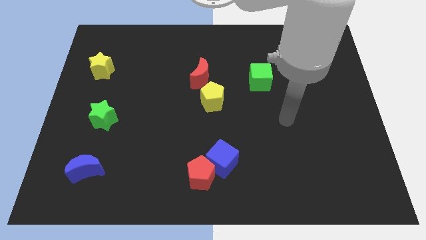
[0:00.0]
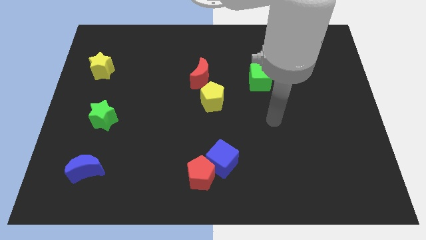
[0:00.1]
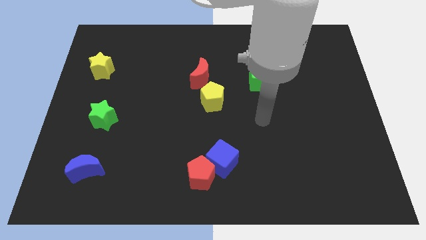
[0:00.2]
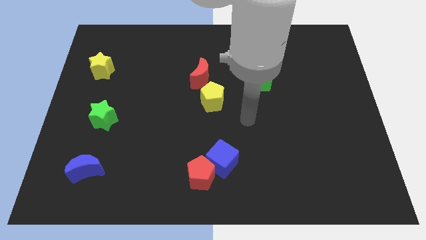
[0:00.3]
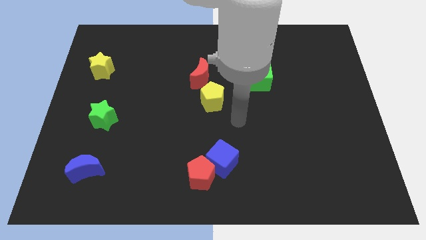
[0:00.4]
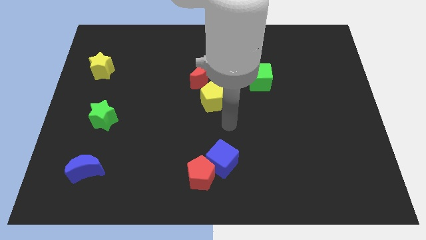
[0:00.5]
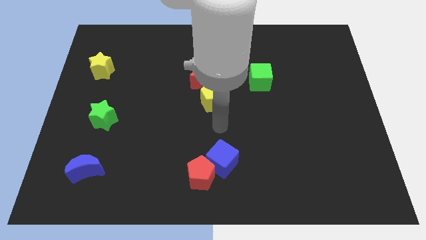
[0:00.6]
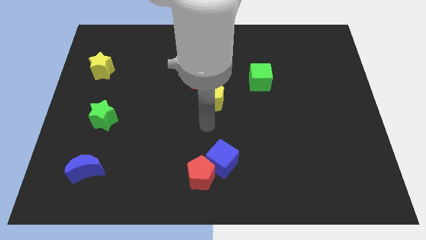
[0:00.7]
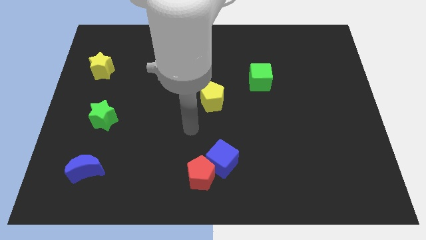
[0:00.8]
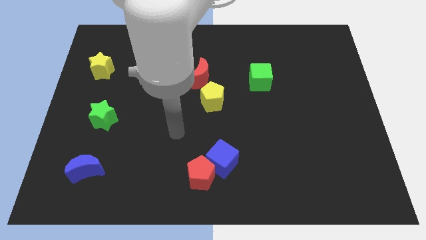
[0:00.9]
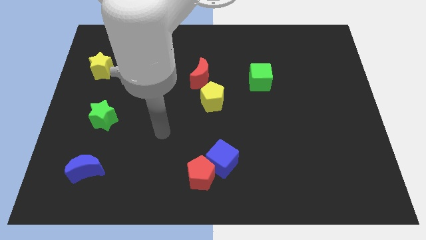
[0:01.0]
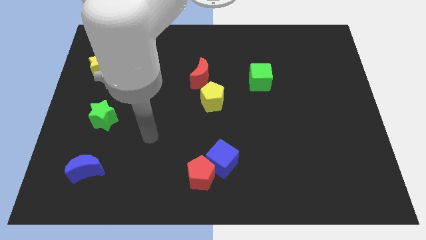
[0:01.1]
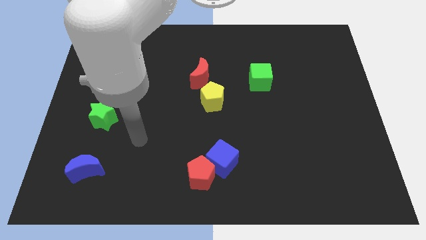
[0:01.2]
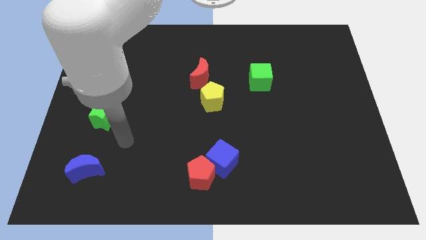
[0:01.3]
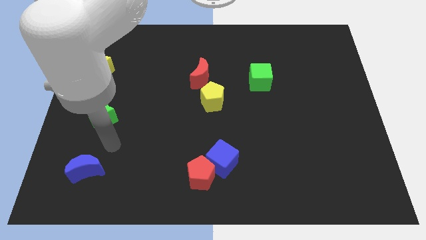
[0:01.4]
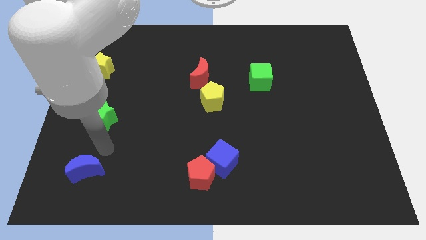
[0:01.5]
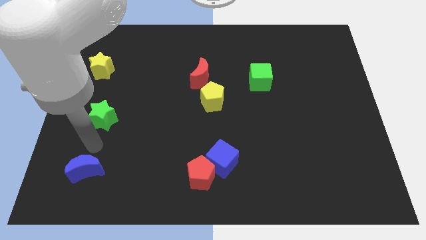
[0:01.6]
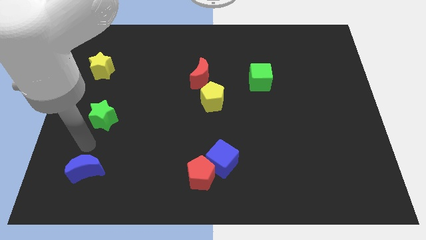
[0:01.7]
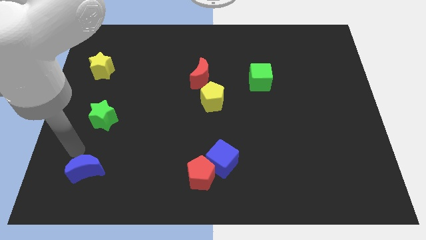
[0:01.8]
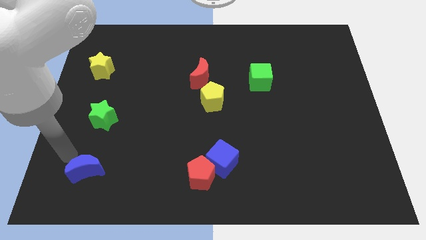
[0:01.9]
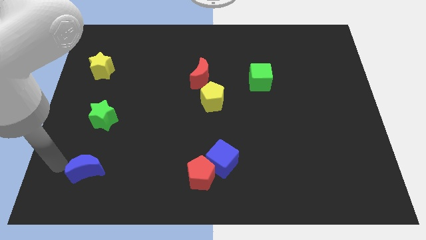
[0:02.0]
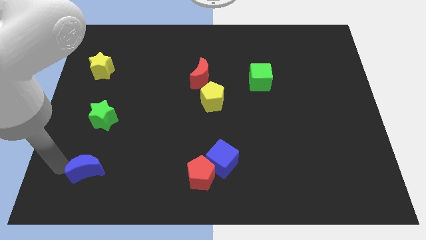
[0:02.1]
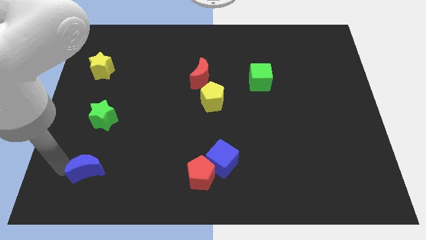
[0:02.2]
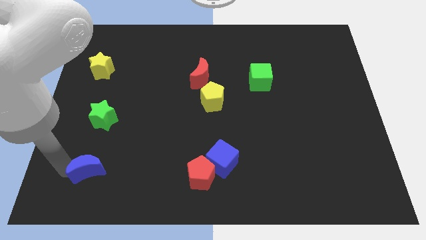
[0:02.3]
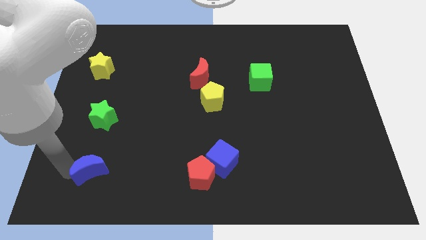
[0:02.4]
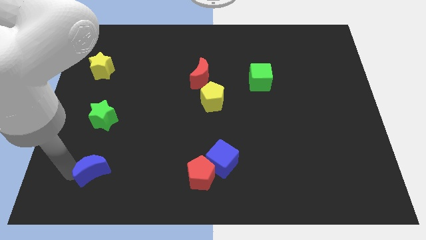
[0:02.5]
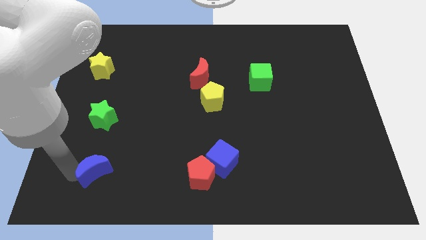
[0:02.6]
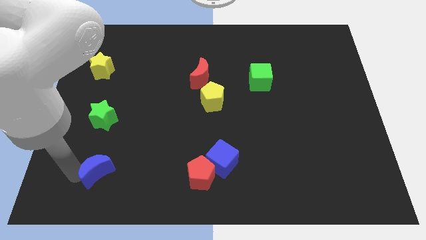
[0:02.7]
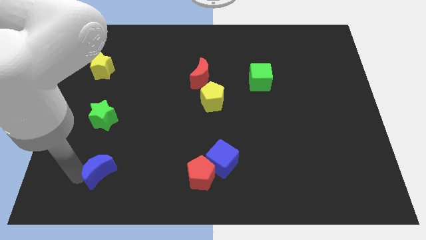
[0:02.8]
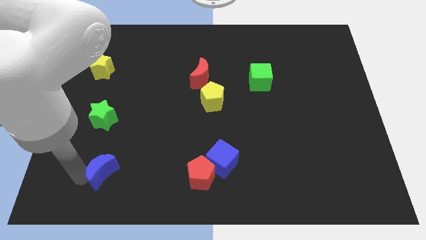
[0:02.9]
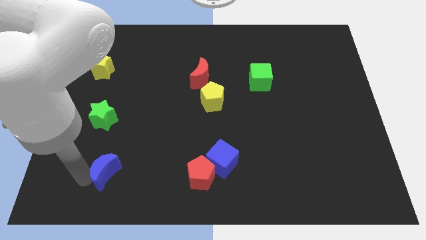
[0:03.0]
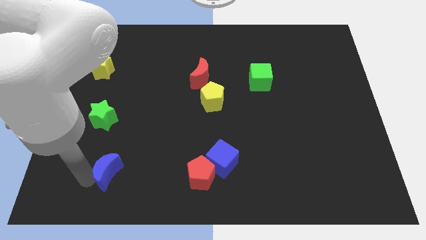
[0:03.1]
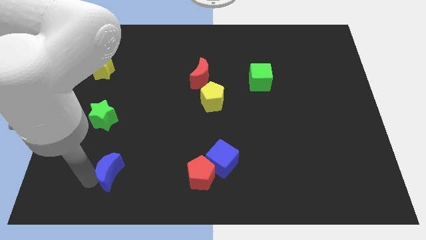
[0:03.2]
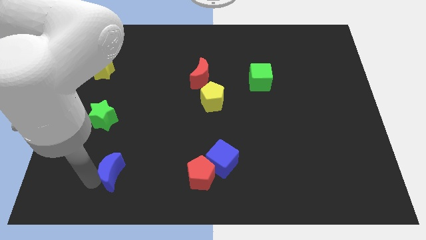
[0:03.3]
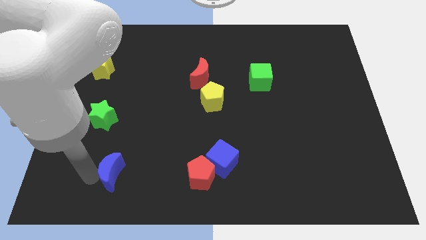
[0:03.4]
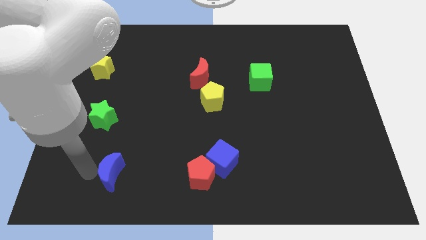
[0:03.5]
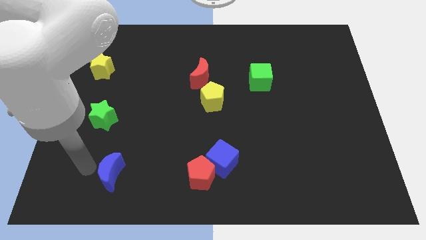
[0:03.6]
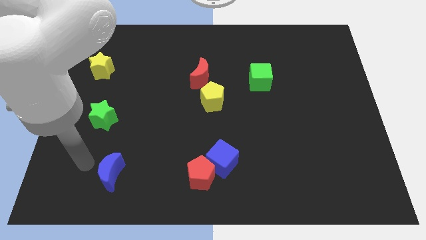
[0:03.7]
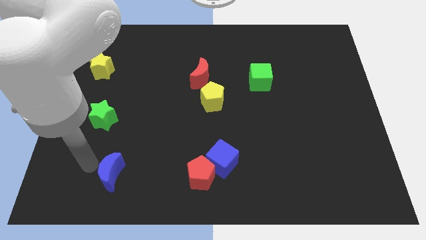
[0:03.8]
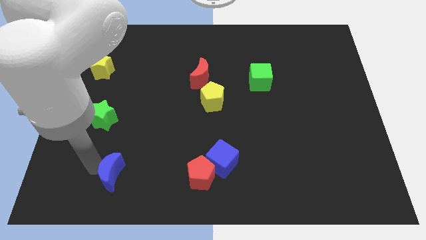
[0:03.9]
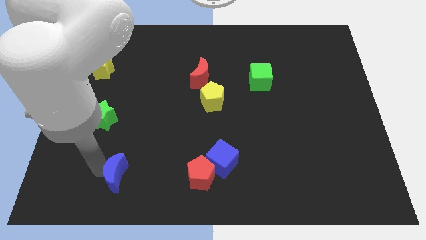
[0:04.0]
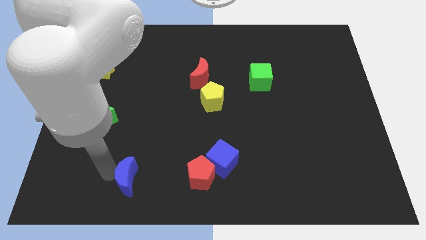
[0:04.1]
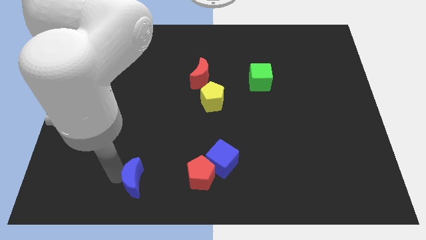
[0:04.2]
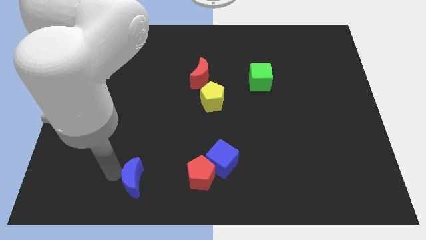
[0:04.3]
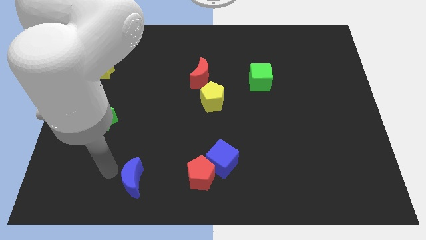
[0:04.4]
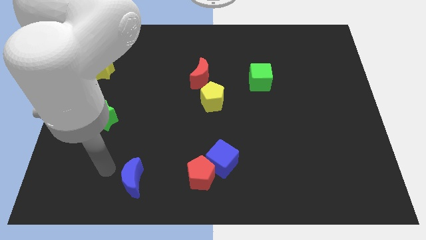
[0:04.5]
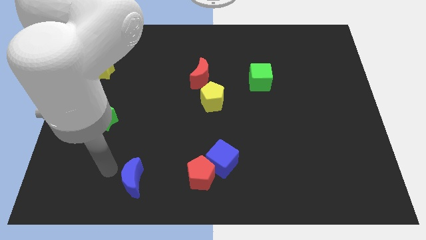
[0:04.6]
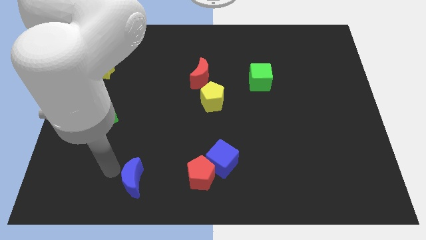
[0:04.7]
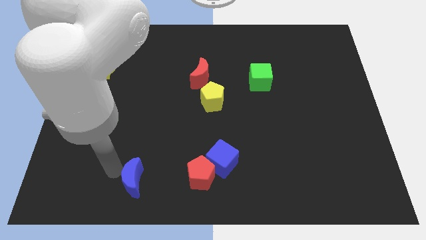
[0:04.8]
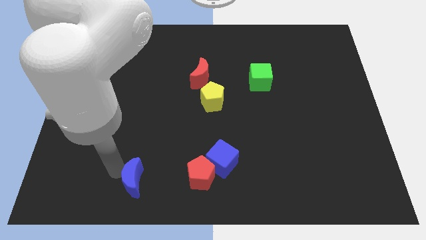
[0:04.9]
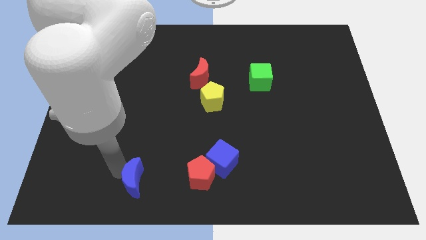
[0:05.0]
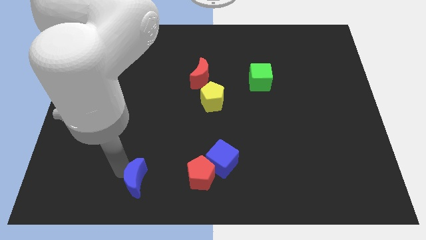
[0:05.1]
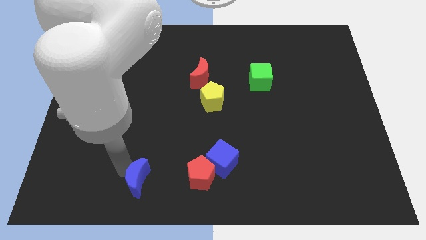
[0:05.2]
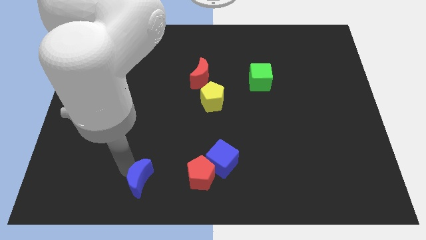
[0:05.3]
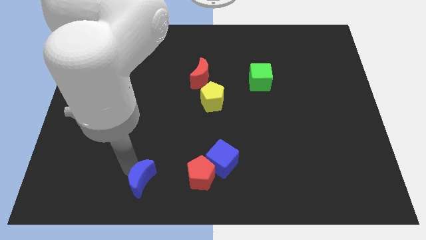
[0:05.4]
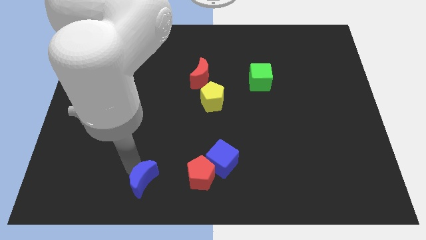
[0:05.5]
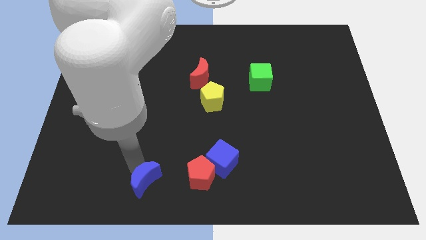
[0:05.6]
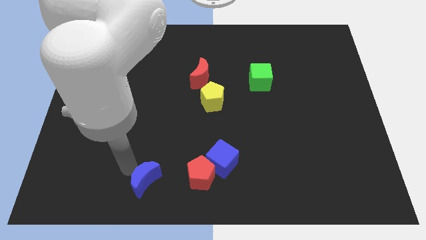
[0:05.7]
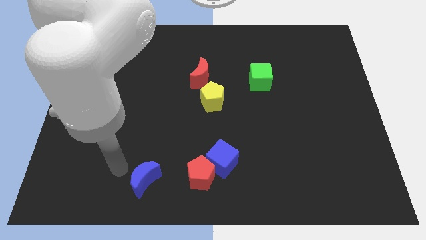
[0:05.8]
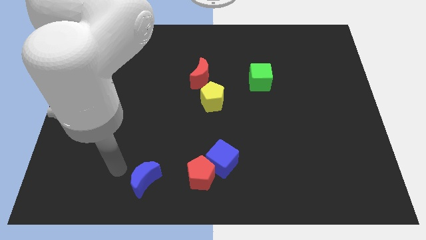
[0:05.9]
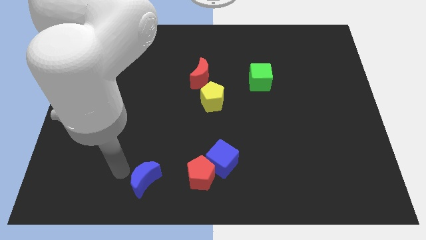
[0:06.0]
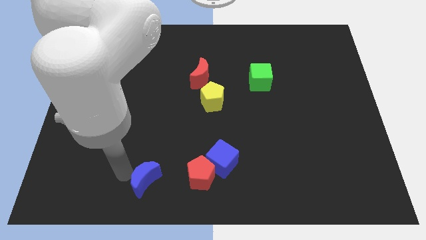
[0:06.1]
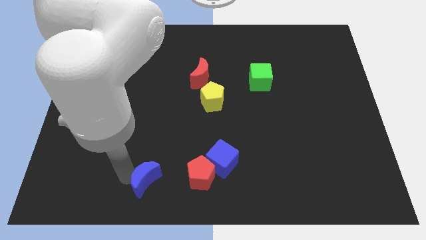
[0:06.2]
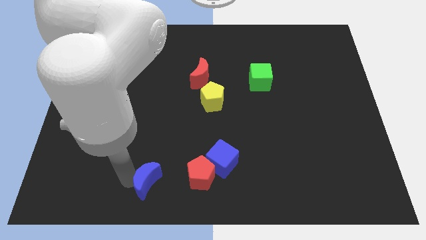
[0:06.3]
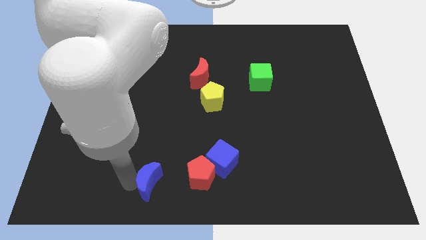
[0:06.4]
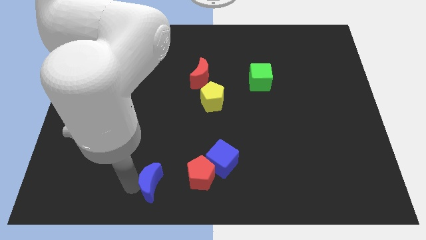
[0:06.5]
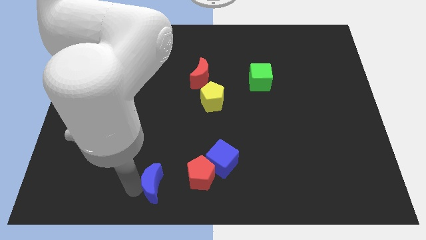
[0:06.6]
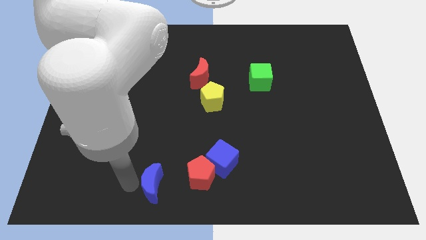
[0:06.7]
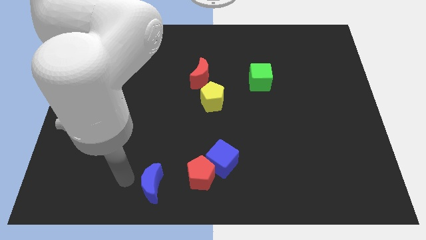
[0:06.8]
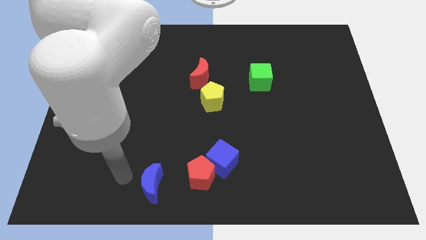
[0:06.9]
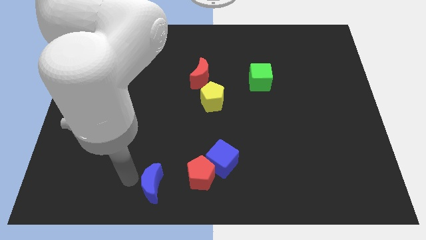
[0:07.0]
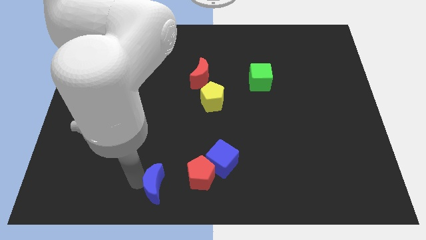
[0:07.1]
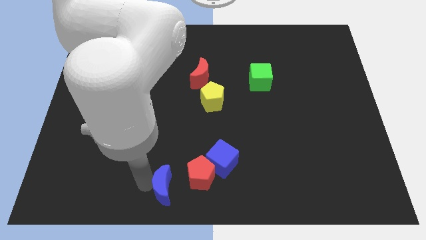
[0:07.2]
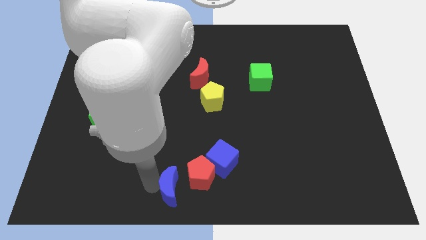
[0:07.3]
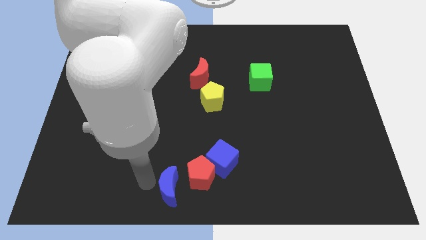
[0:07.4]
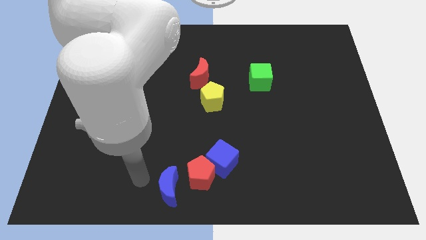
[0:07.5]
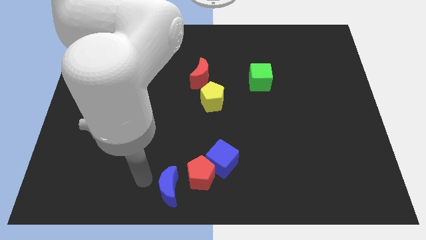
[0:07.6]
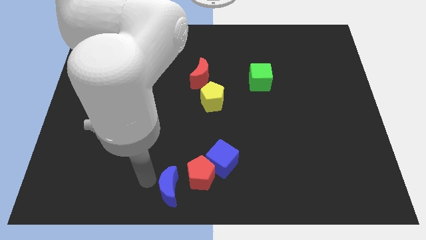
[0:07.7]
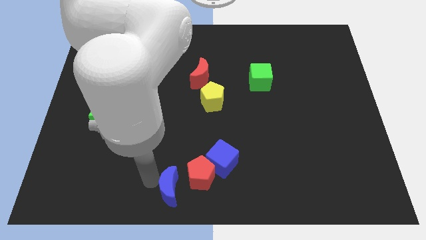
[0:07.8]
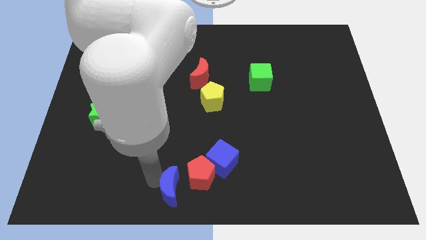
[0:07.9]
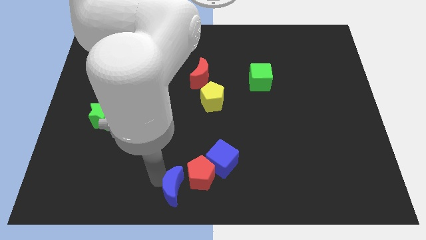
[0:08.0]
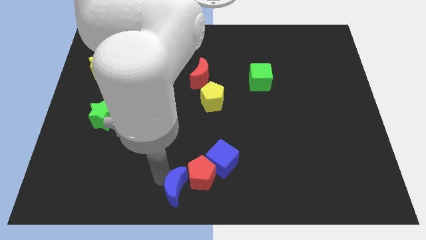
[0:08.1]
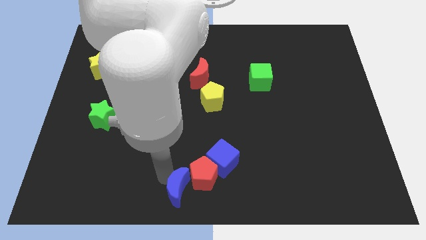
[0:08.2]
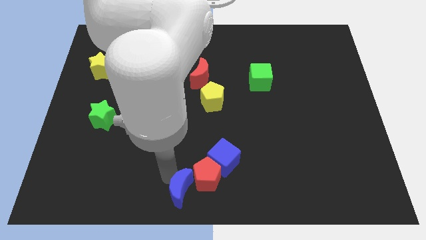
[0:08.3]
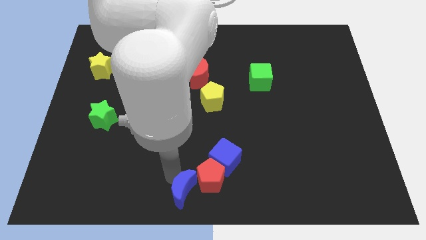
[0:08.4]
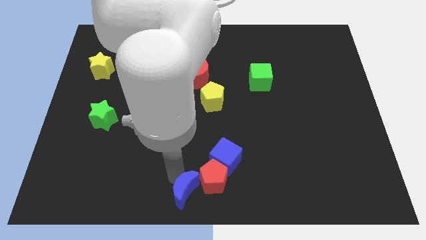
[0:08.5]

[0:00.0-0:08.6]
slide the blue moon to the right
